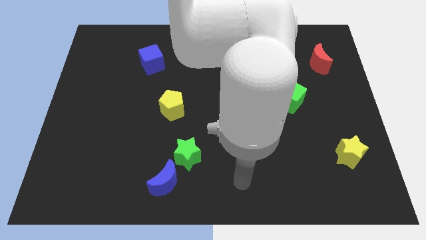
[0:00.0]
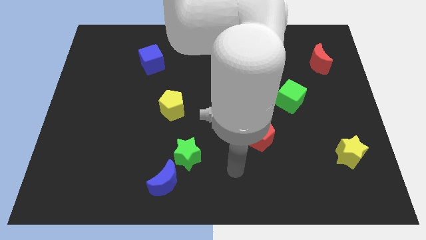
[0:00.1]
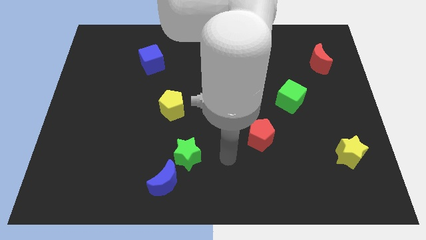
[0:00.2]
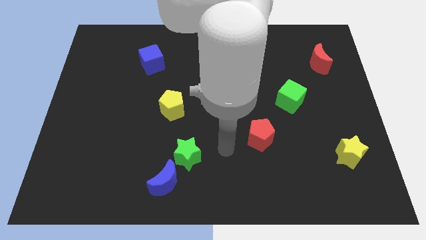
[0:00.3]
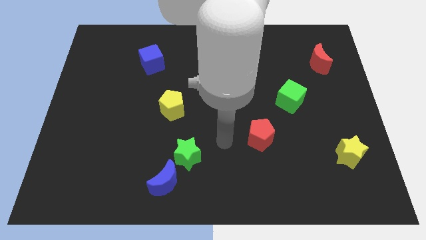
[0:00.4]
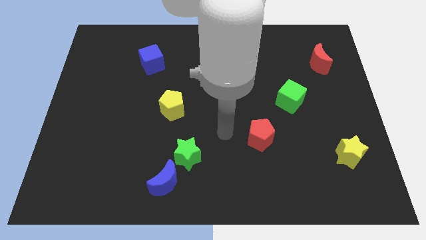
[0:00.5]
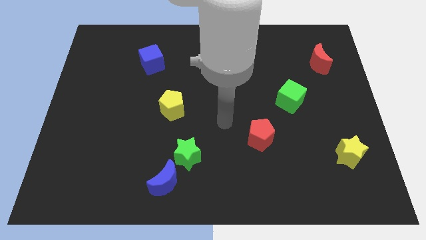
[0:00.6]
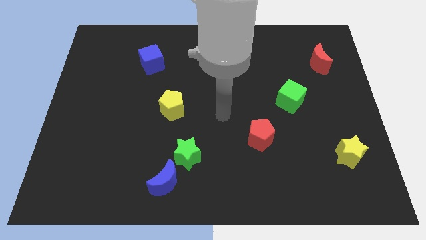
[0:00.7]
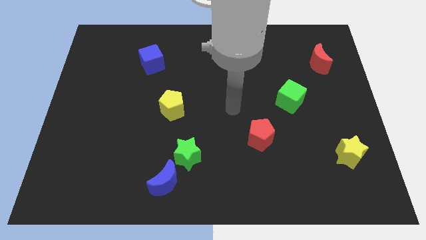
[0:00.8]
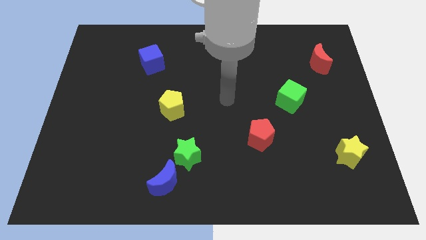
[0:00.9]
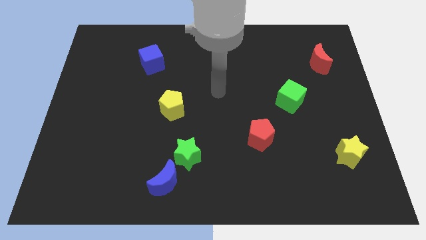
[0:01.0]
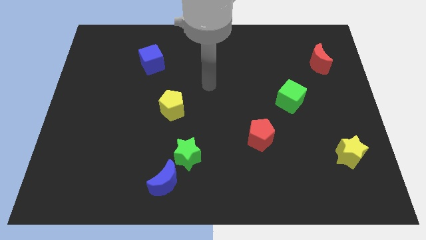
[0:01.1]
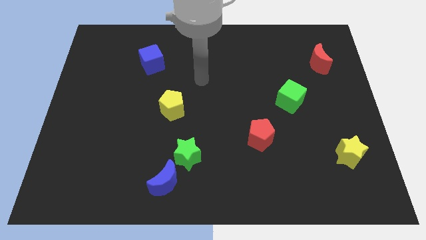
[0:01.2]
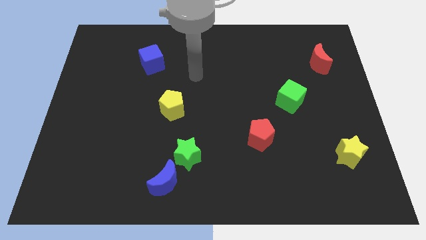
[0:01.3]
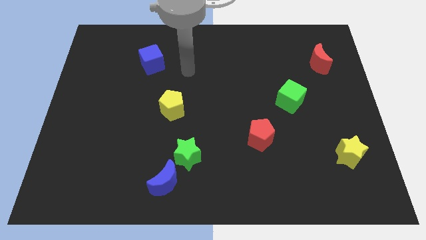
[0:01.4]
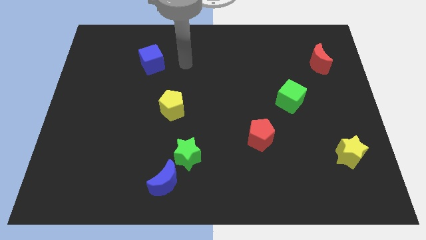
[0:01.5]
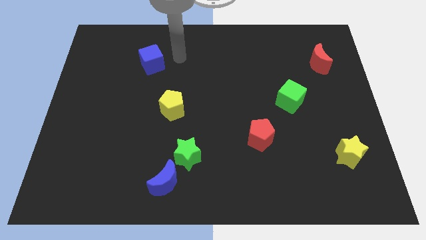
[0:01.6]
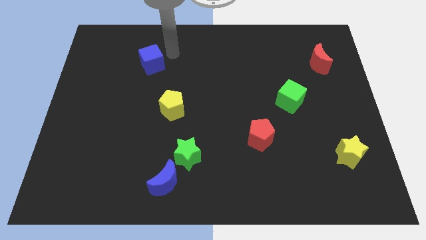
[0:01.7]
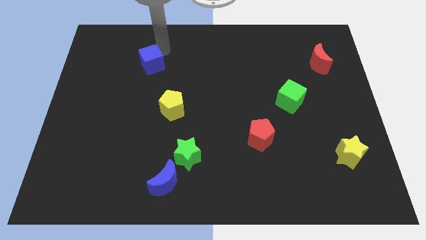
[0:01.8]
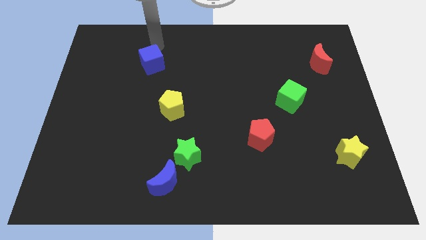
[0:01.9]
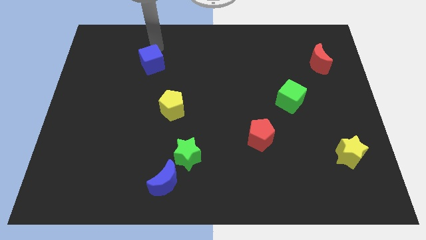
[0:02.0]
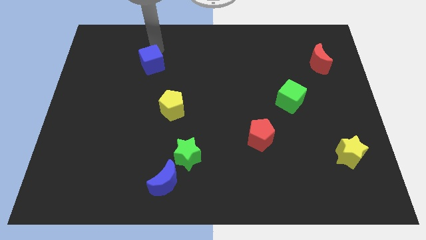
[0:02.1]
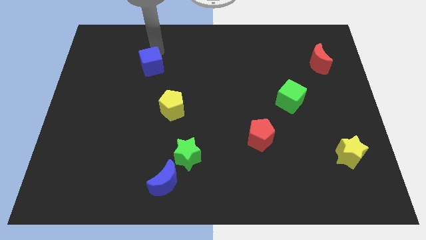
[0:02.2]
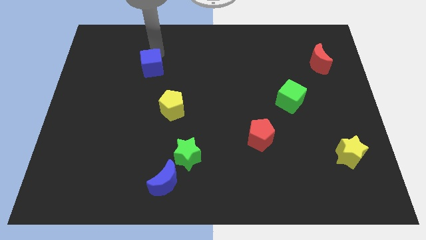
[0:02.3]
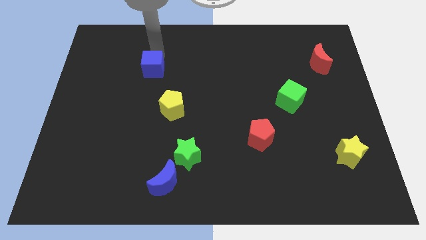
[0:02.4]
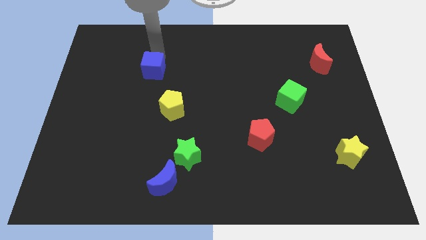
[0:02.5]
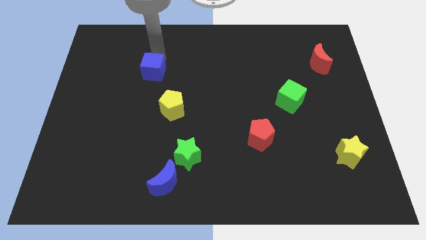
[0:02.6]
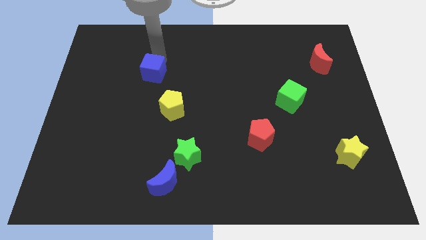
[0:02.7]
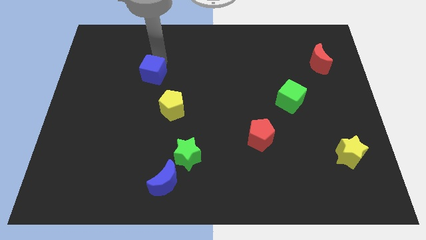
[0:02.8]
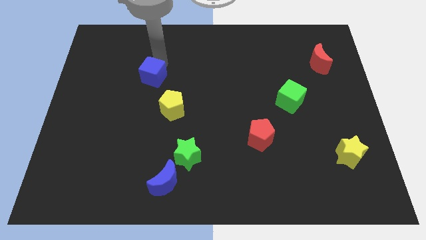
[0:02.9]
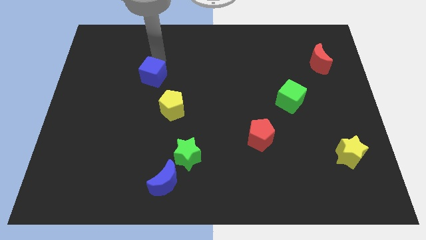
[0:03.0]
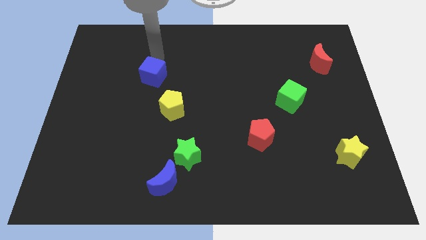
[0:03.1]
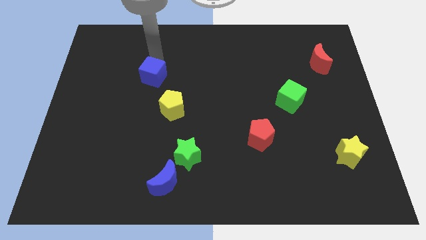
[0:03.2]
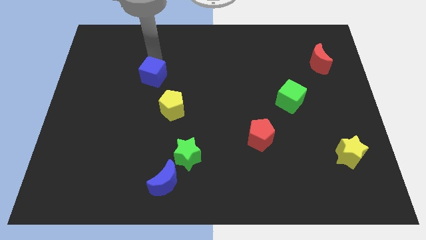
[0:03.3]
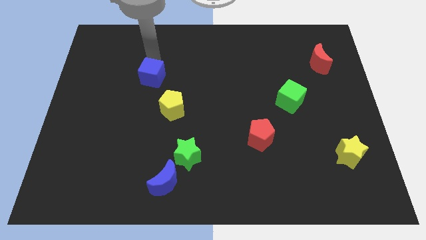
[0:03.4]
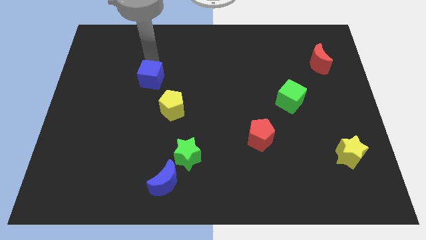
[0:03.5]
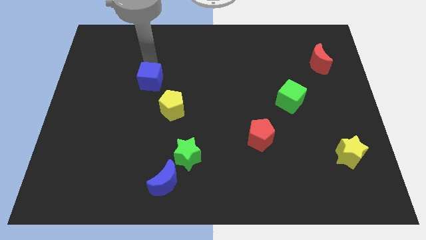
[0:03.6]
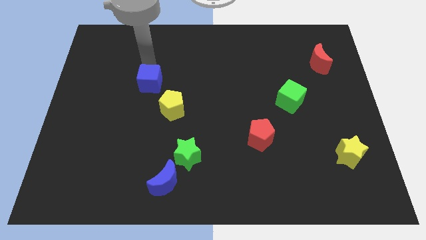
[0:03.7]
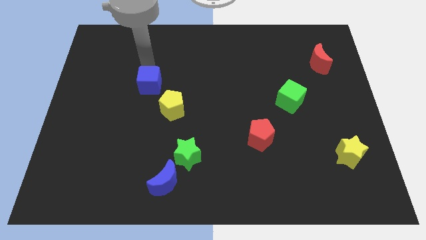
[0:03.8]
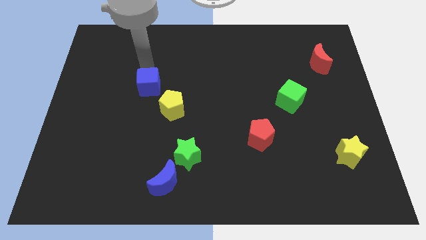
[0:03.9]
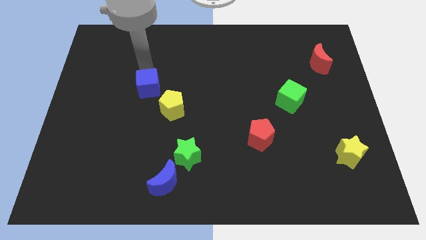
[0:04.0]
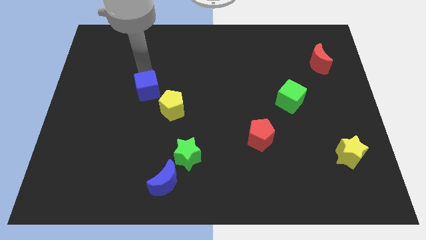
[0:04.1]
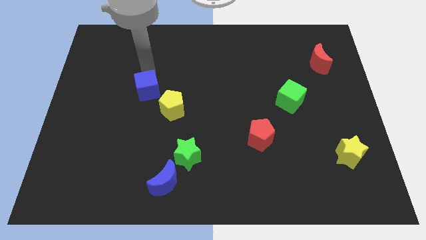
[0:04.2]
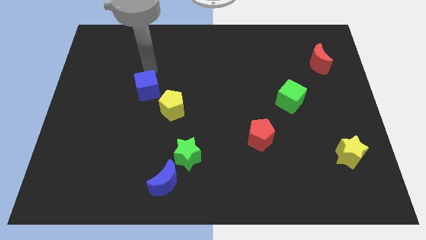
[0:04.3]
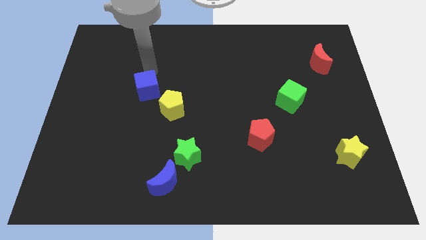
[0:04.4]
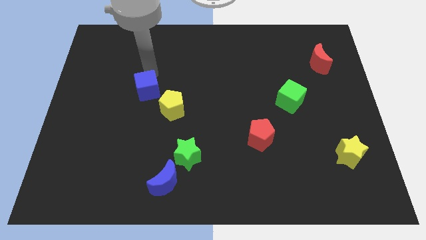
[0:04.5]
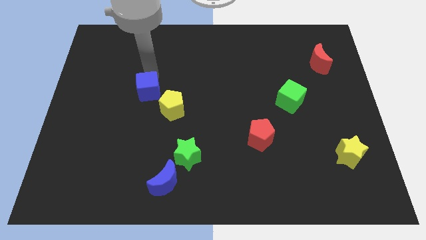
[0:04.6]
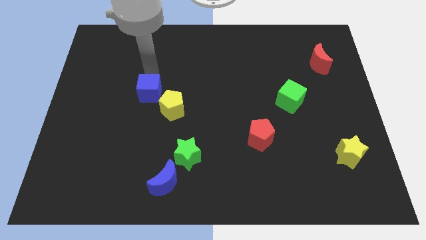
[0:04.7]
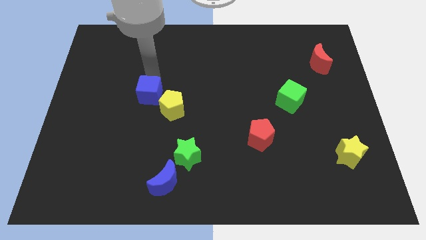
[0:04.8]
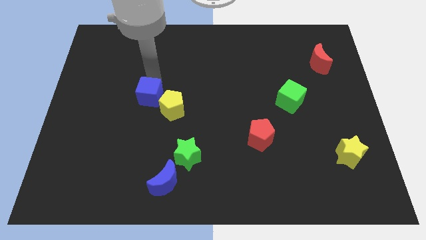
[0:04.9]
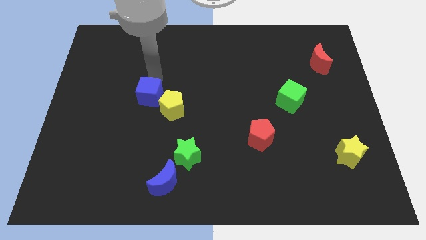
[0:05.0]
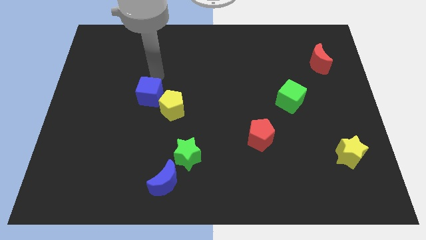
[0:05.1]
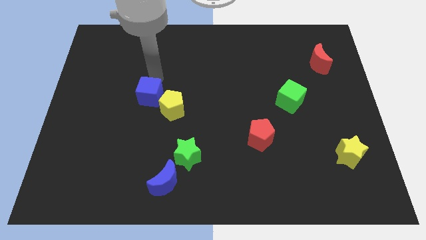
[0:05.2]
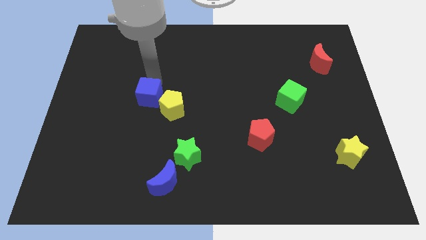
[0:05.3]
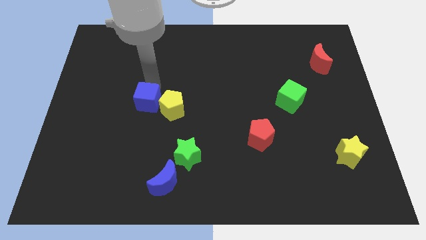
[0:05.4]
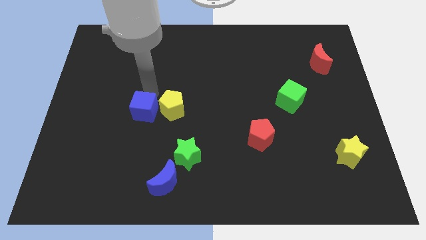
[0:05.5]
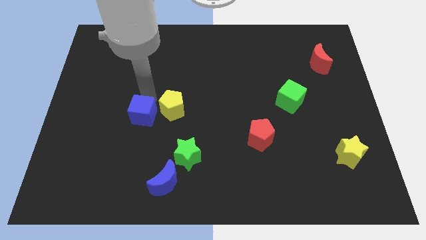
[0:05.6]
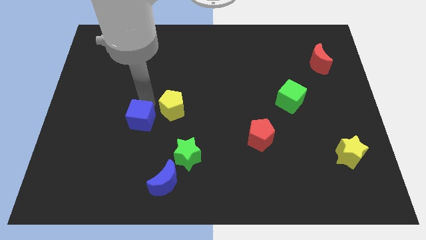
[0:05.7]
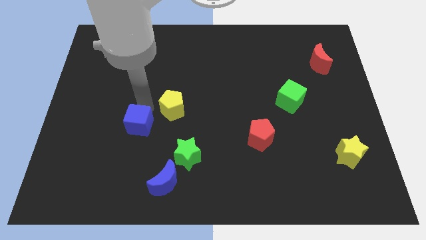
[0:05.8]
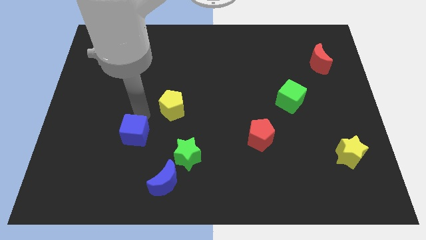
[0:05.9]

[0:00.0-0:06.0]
move the blue cube downwards

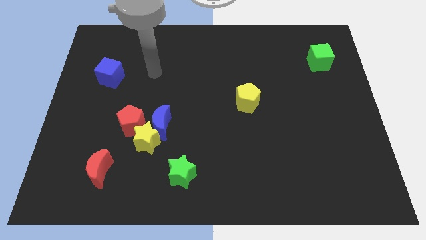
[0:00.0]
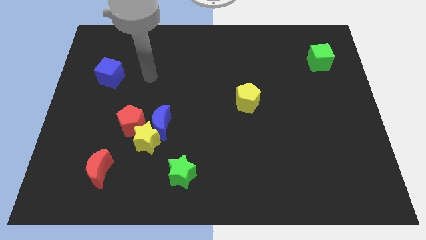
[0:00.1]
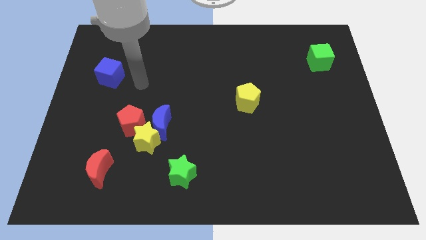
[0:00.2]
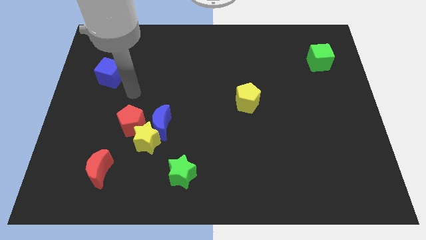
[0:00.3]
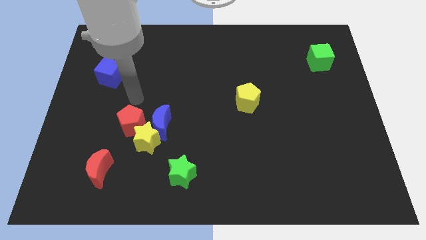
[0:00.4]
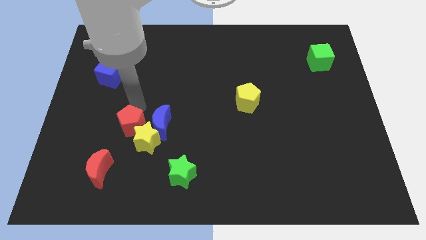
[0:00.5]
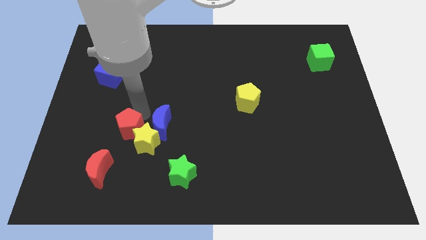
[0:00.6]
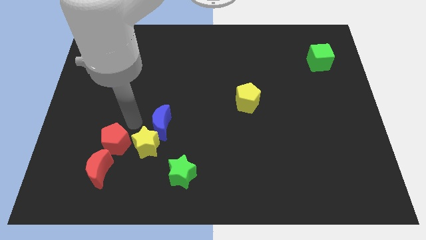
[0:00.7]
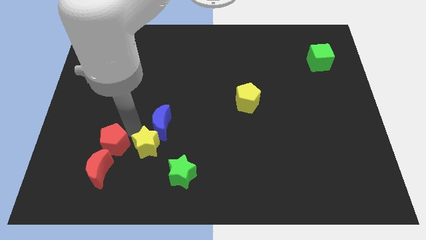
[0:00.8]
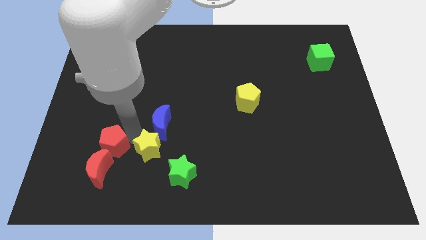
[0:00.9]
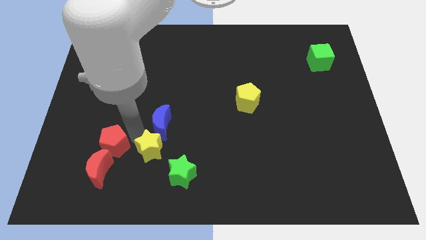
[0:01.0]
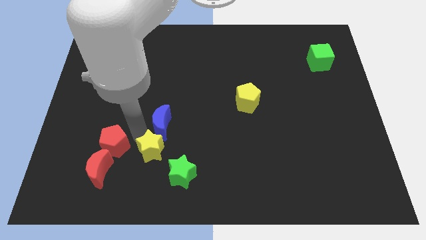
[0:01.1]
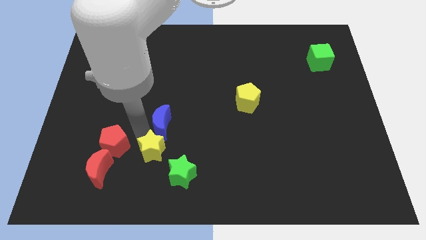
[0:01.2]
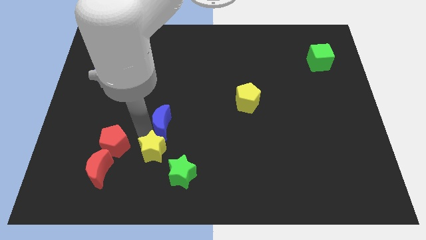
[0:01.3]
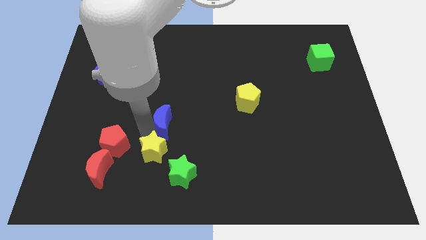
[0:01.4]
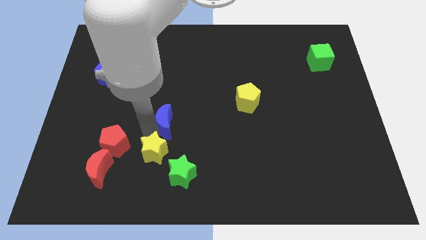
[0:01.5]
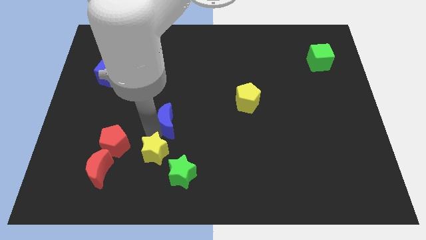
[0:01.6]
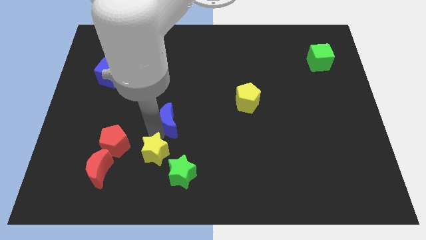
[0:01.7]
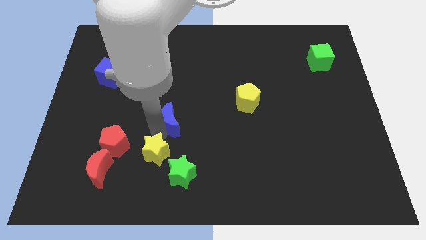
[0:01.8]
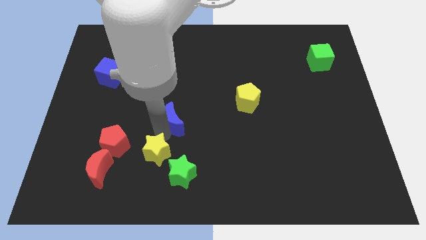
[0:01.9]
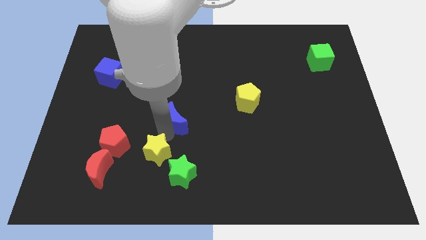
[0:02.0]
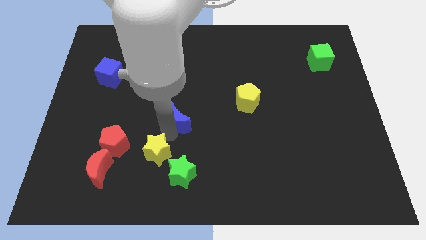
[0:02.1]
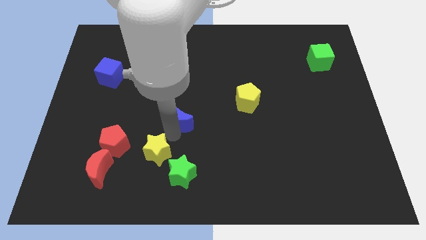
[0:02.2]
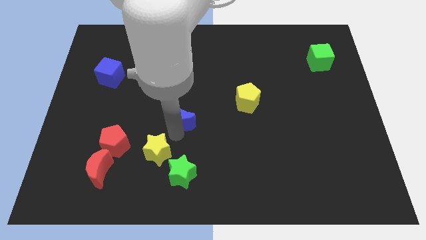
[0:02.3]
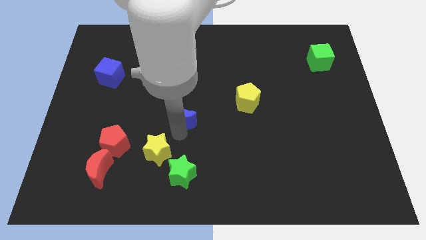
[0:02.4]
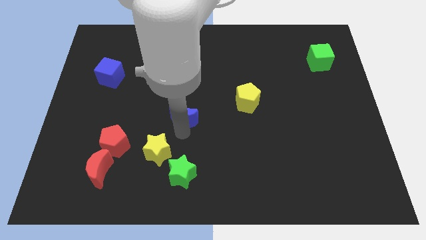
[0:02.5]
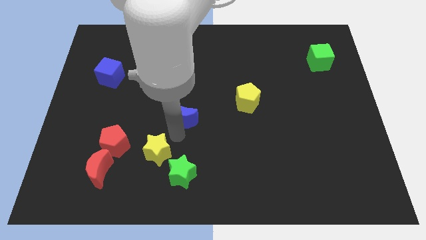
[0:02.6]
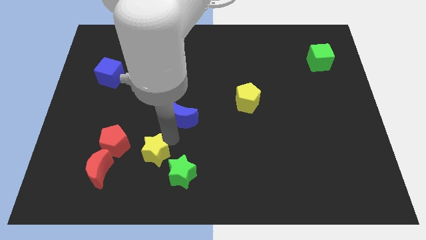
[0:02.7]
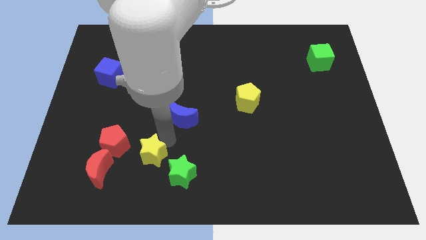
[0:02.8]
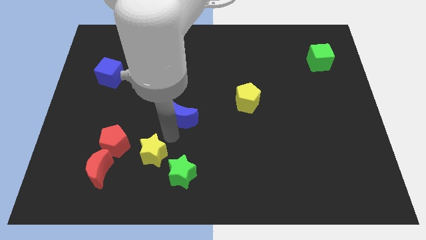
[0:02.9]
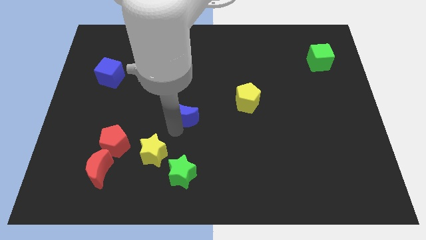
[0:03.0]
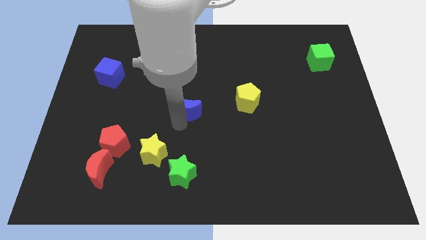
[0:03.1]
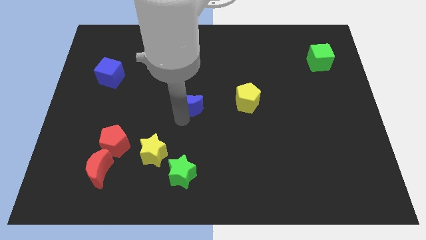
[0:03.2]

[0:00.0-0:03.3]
move the blue moon somewhat upwards and right diagonally
